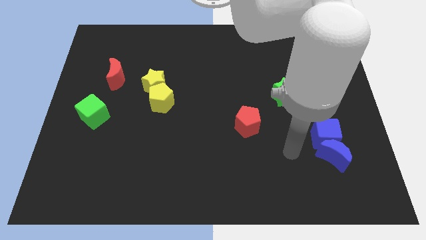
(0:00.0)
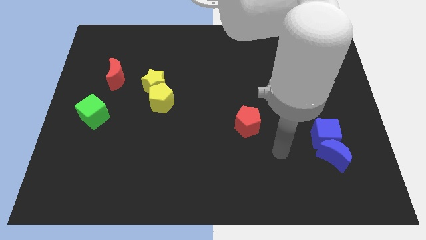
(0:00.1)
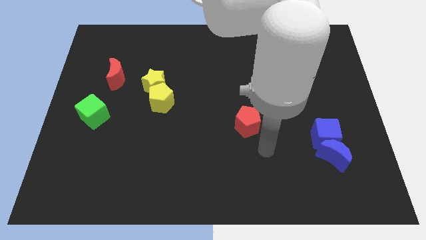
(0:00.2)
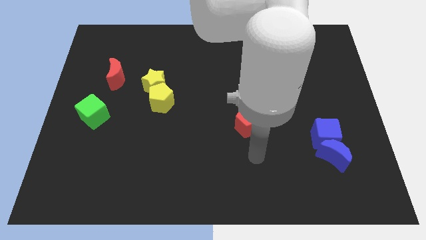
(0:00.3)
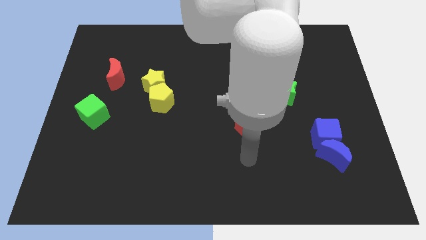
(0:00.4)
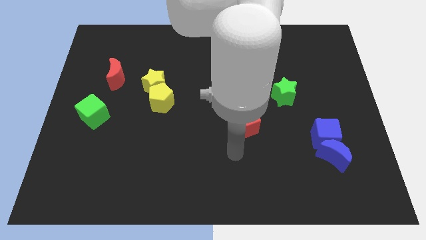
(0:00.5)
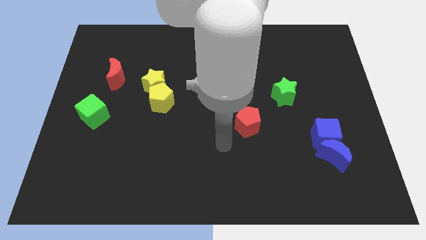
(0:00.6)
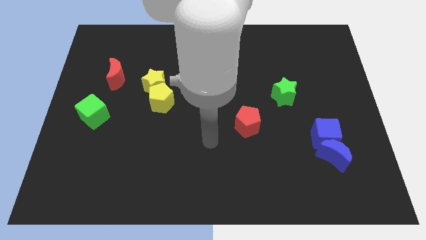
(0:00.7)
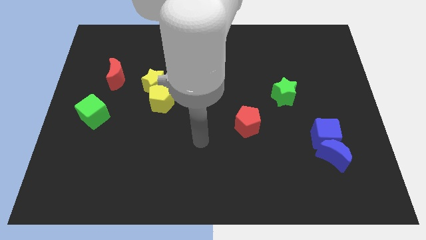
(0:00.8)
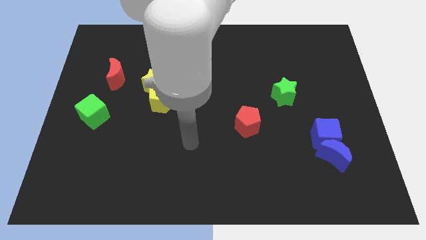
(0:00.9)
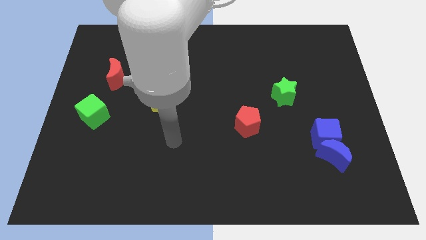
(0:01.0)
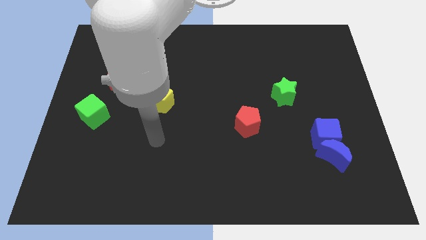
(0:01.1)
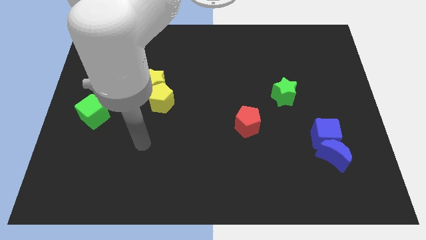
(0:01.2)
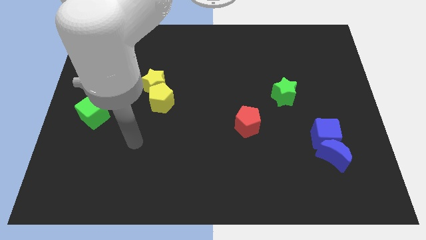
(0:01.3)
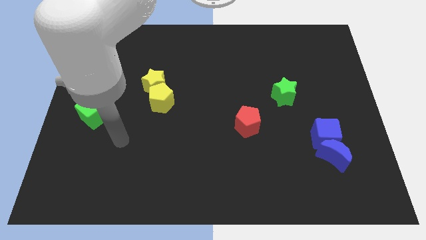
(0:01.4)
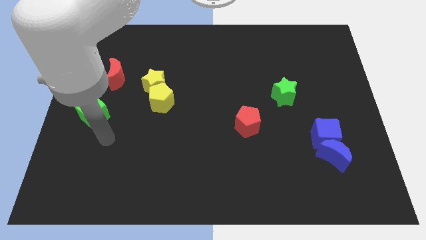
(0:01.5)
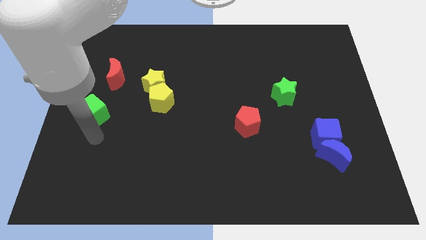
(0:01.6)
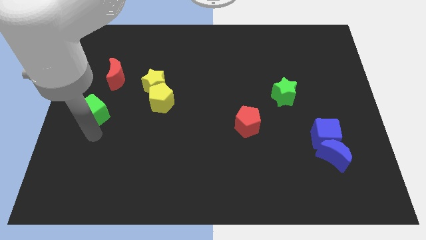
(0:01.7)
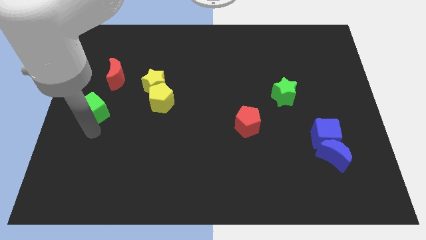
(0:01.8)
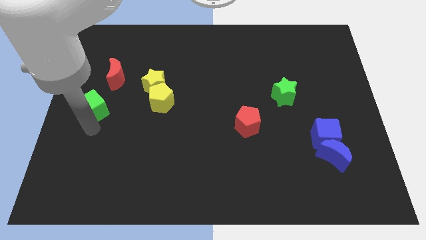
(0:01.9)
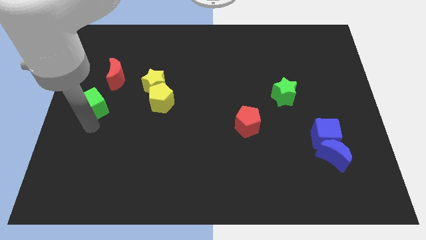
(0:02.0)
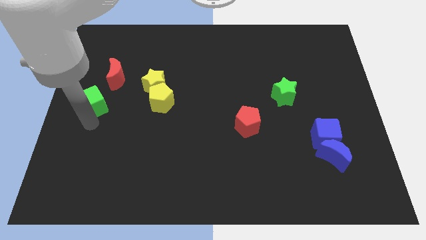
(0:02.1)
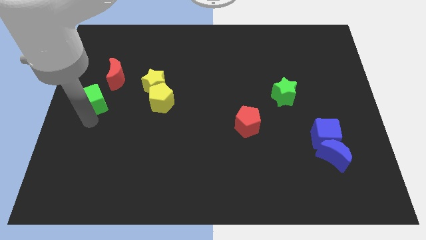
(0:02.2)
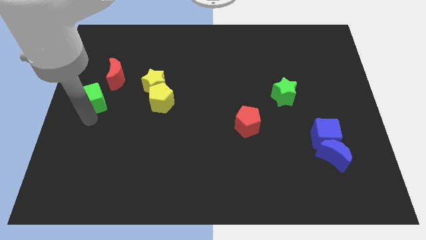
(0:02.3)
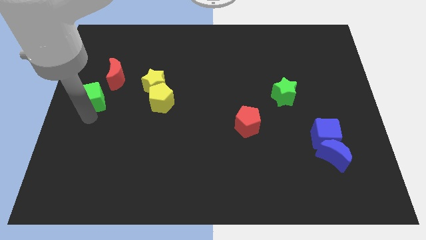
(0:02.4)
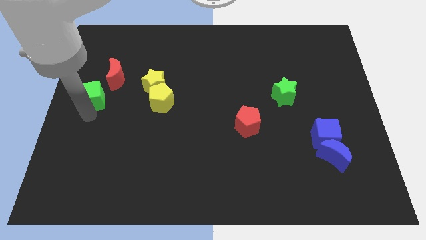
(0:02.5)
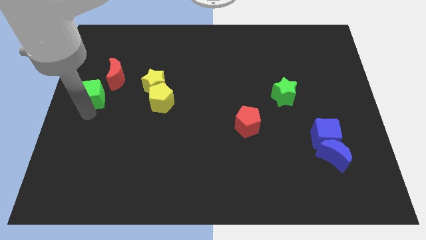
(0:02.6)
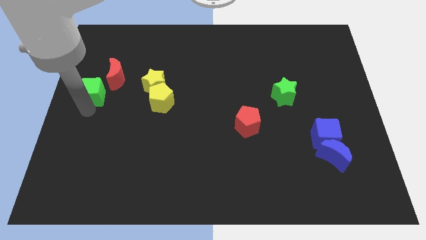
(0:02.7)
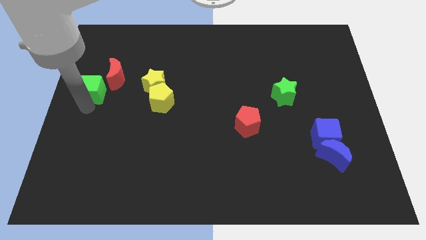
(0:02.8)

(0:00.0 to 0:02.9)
slightly move the green cube upwards

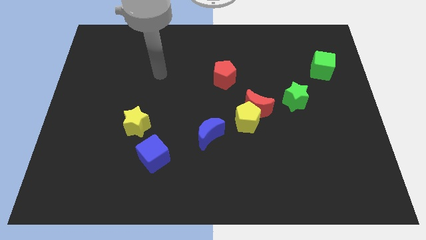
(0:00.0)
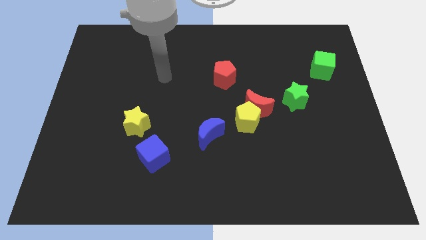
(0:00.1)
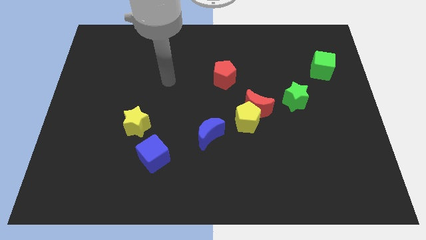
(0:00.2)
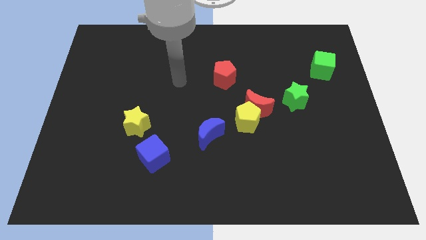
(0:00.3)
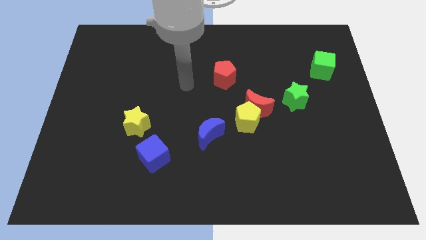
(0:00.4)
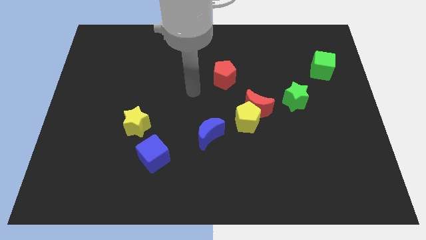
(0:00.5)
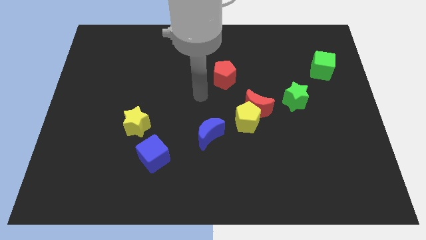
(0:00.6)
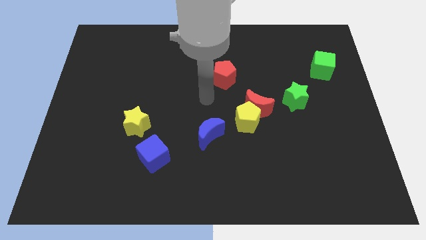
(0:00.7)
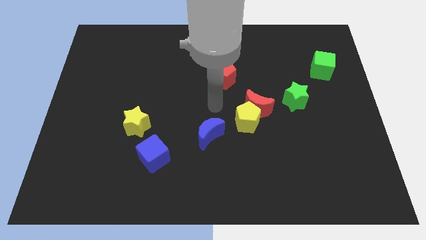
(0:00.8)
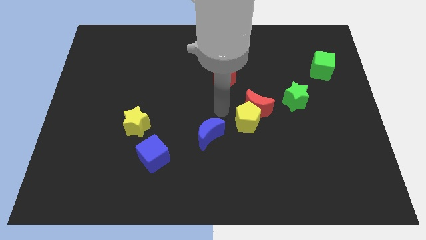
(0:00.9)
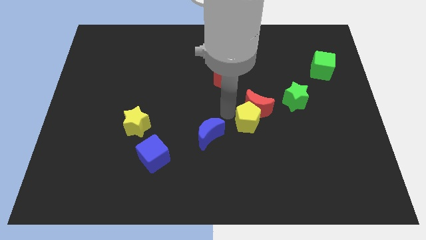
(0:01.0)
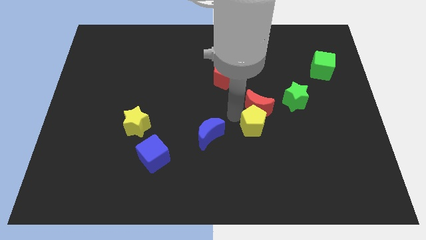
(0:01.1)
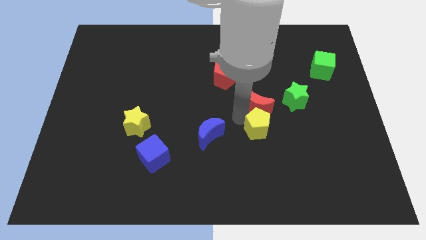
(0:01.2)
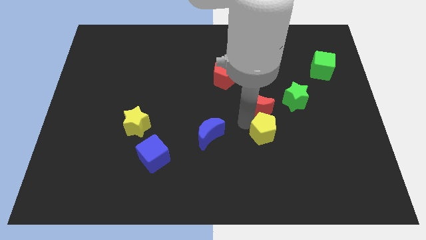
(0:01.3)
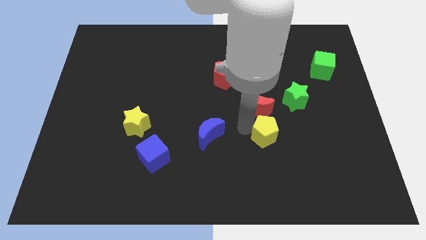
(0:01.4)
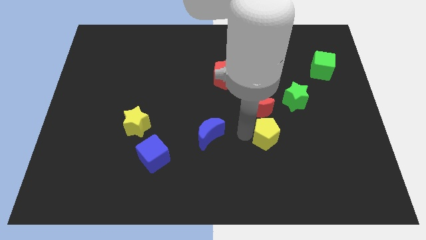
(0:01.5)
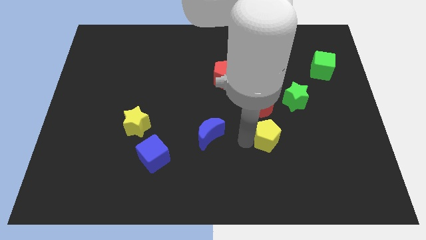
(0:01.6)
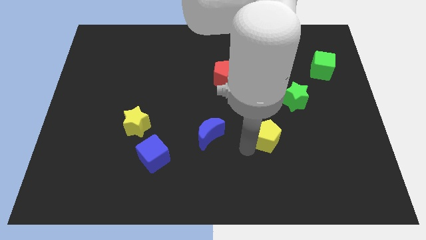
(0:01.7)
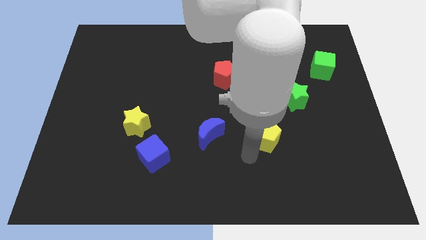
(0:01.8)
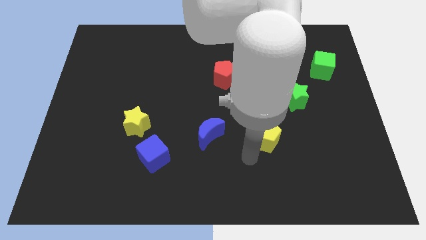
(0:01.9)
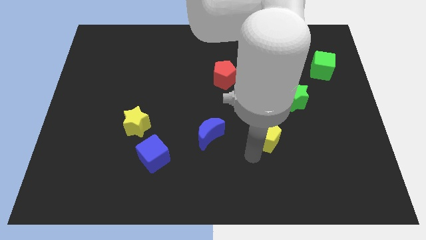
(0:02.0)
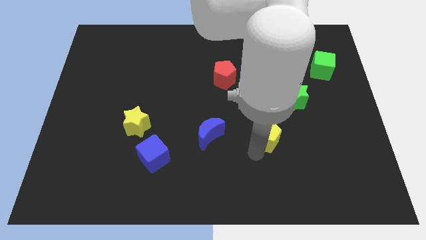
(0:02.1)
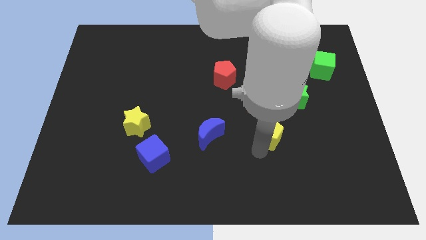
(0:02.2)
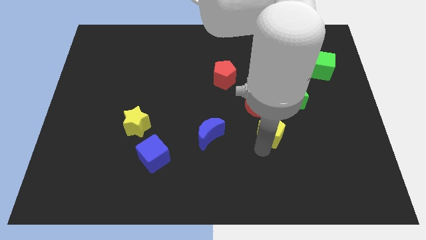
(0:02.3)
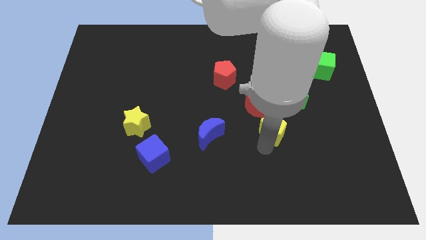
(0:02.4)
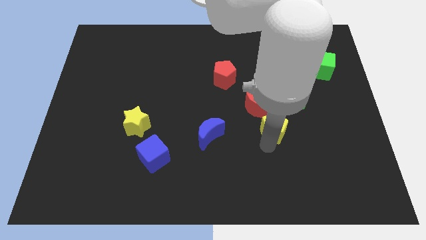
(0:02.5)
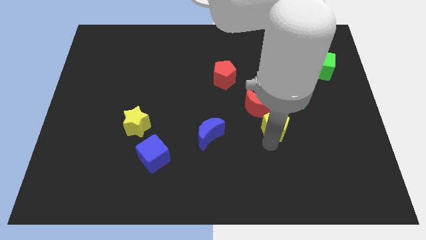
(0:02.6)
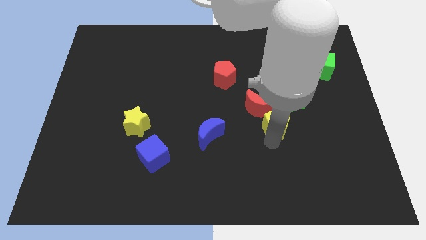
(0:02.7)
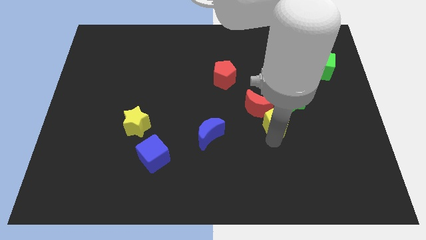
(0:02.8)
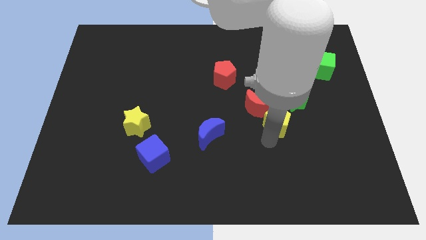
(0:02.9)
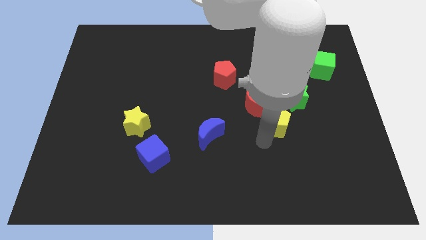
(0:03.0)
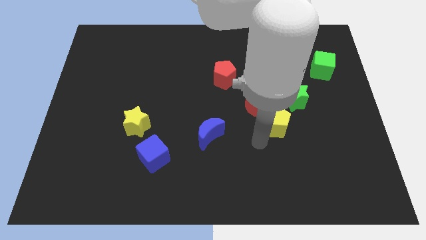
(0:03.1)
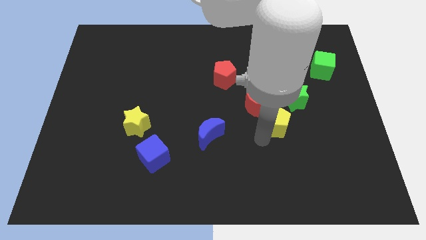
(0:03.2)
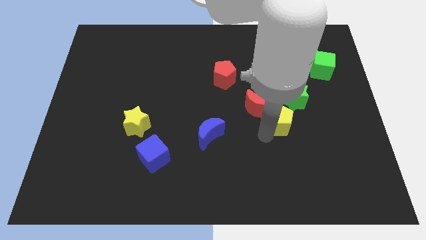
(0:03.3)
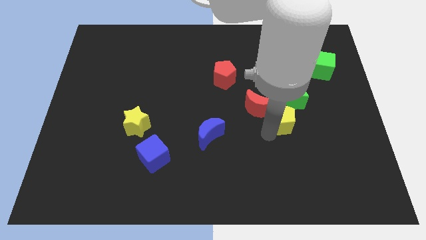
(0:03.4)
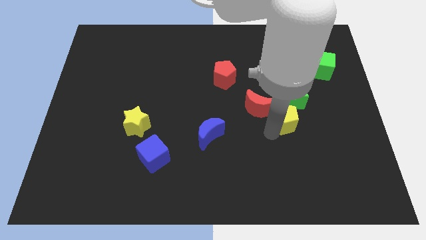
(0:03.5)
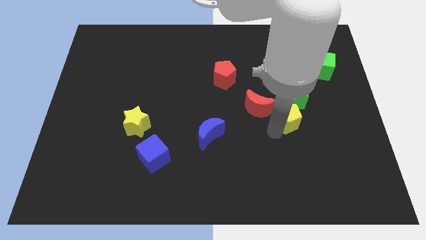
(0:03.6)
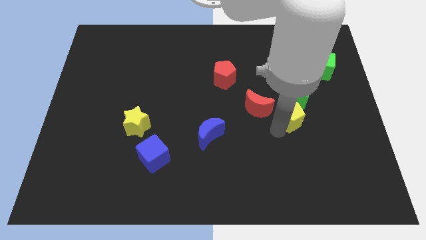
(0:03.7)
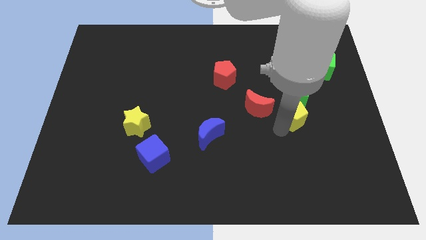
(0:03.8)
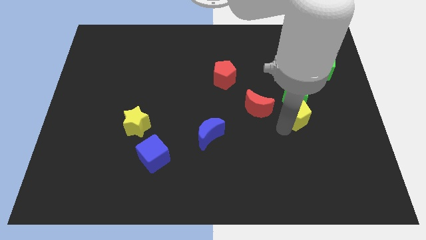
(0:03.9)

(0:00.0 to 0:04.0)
slightly push the yellow pentagon up and then right

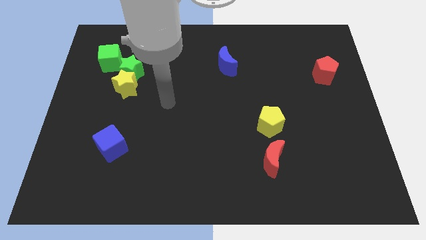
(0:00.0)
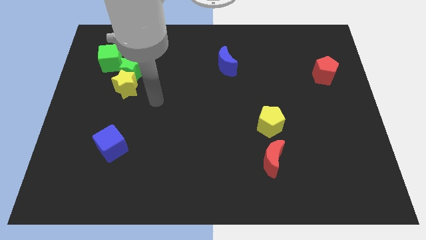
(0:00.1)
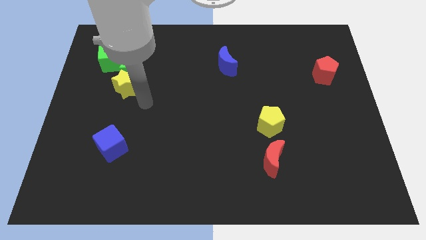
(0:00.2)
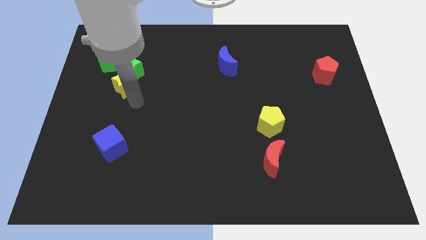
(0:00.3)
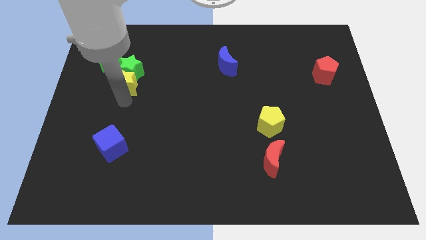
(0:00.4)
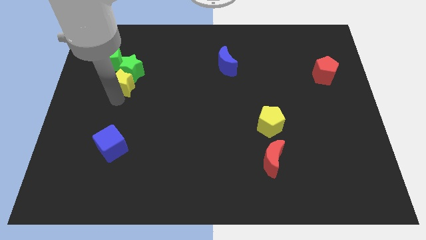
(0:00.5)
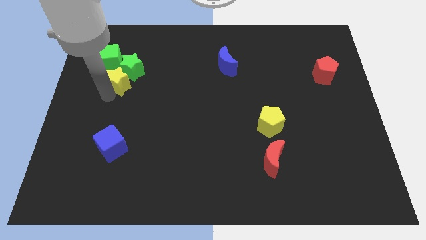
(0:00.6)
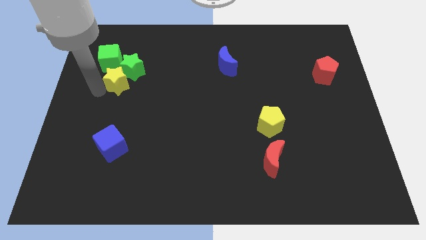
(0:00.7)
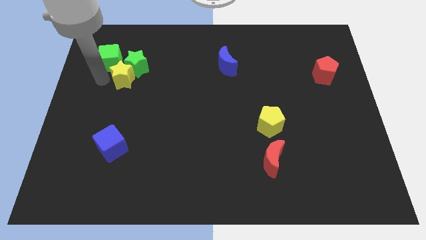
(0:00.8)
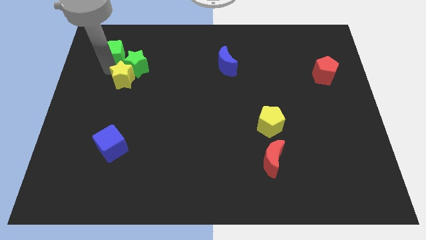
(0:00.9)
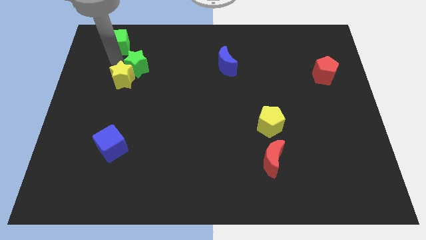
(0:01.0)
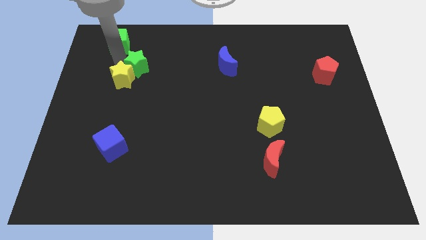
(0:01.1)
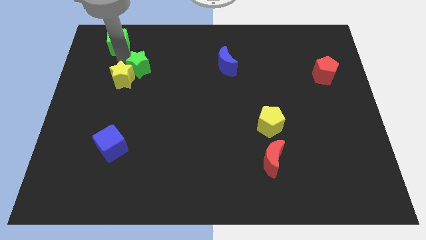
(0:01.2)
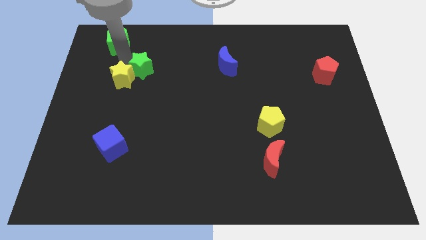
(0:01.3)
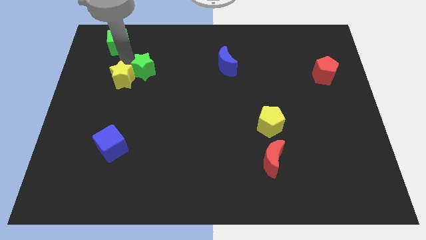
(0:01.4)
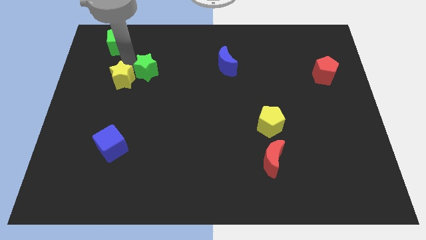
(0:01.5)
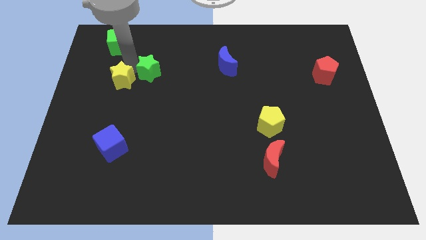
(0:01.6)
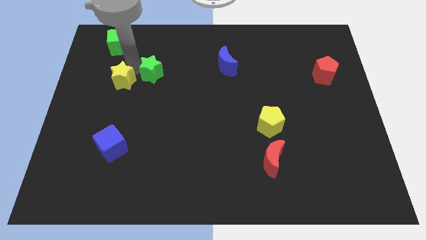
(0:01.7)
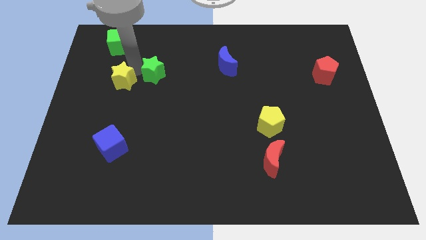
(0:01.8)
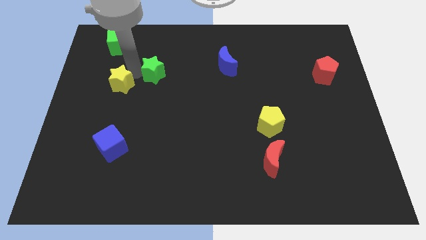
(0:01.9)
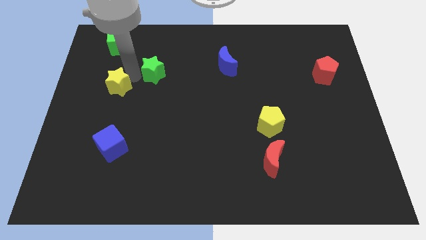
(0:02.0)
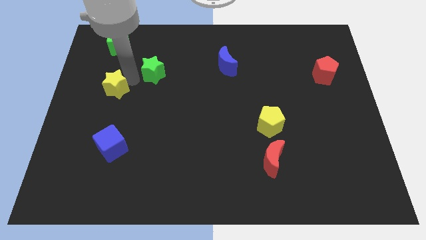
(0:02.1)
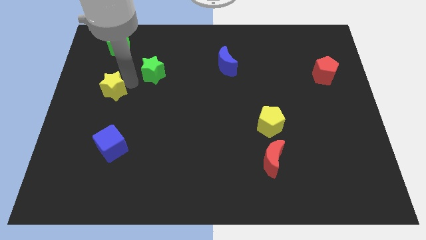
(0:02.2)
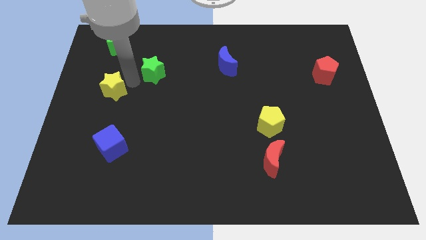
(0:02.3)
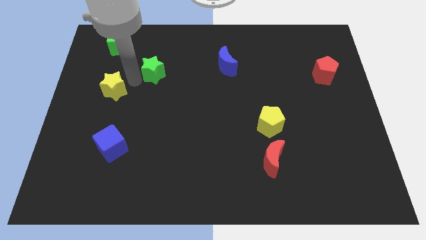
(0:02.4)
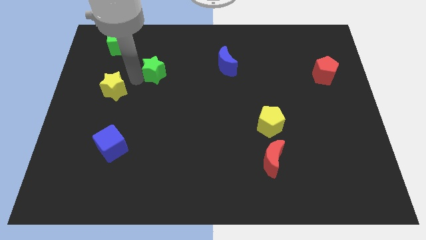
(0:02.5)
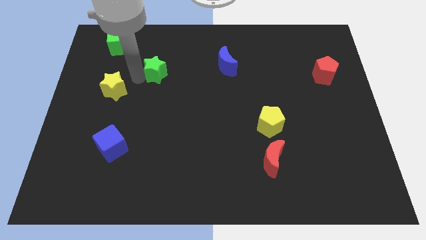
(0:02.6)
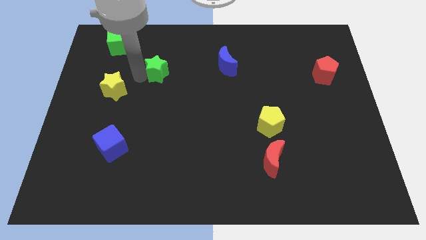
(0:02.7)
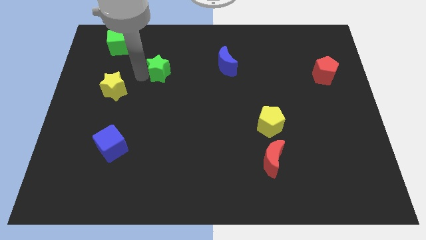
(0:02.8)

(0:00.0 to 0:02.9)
move the green star to the right a little bit
